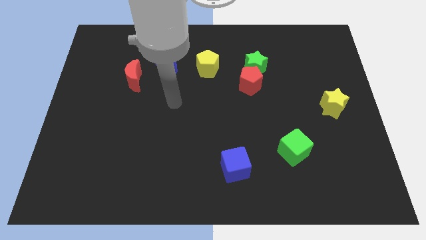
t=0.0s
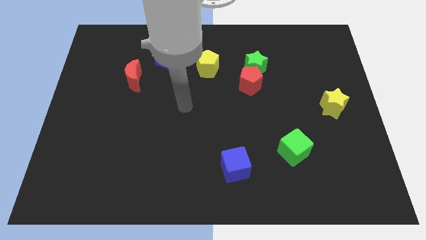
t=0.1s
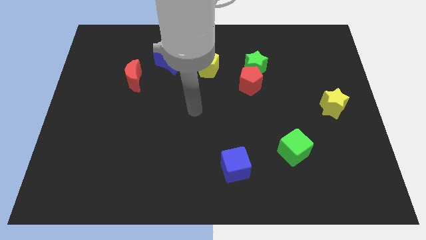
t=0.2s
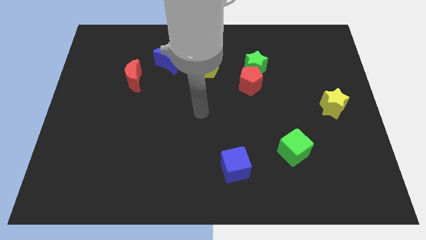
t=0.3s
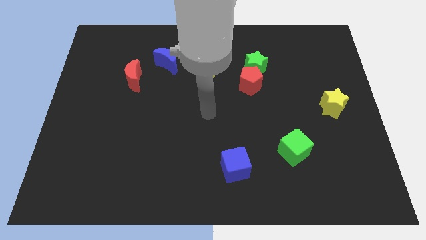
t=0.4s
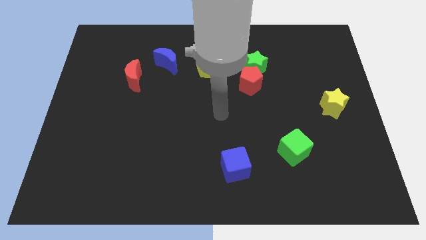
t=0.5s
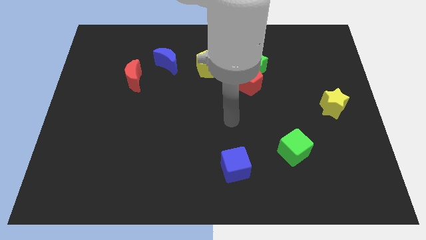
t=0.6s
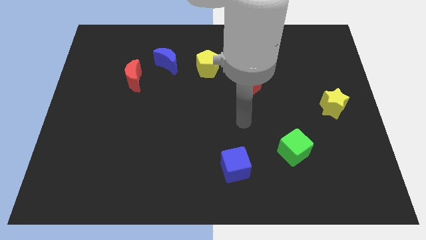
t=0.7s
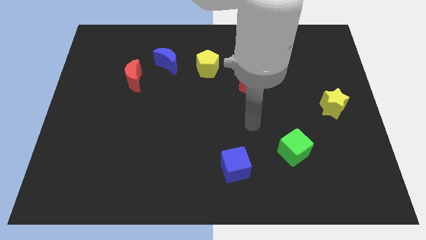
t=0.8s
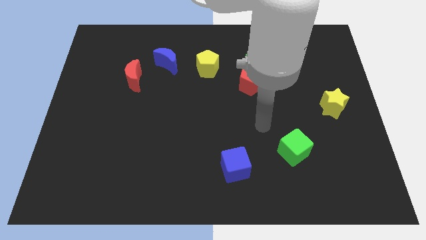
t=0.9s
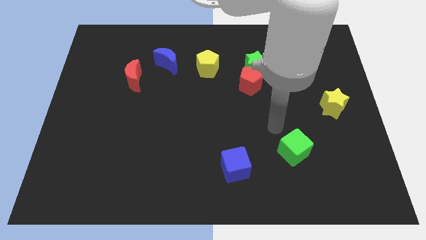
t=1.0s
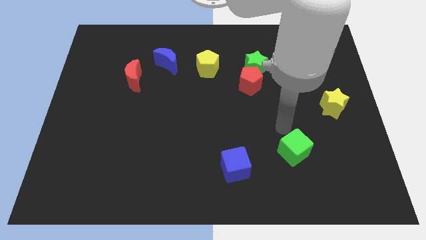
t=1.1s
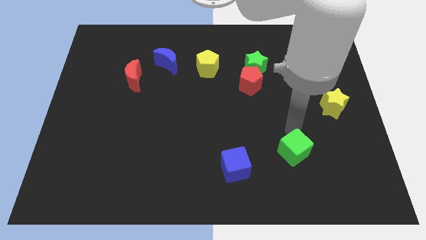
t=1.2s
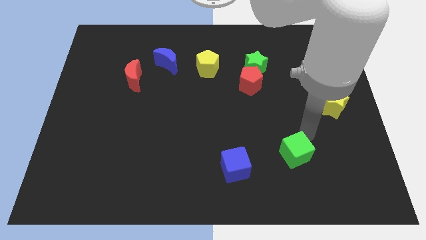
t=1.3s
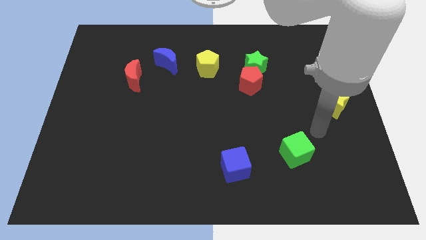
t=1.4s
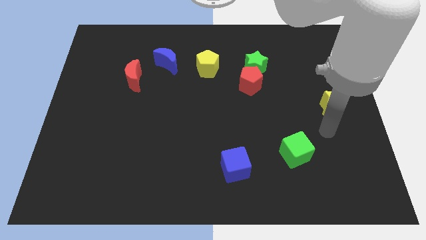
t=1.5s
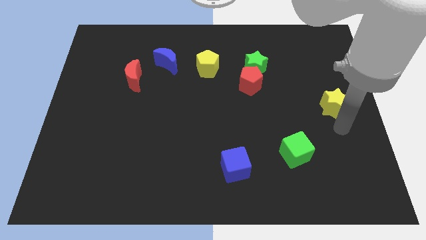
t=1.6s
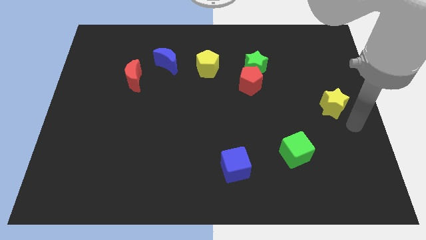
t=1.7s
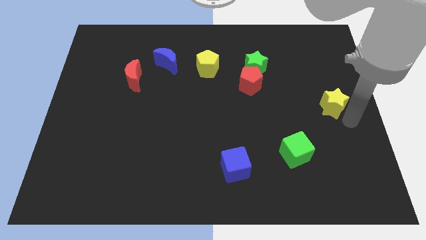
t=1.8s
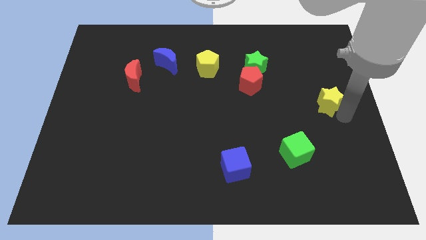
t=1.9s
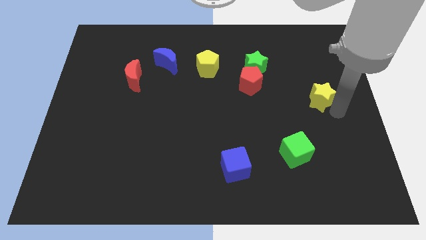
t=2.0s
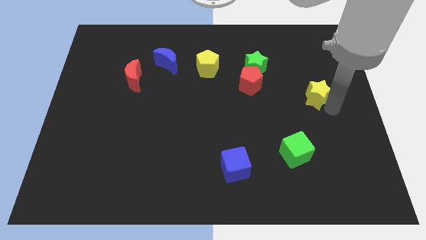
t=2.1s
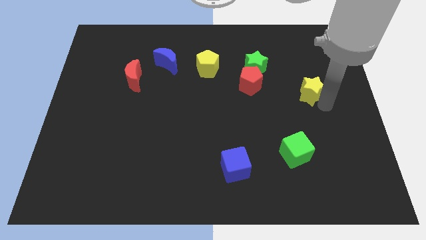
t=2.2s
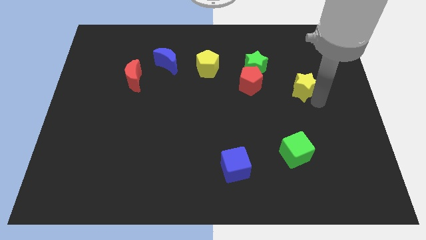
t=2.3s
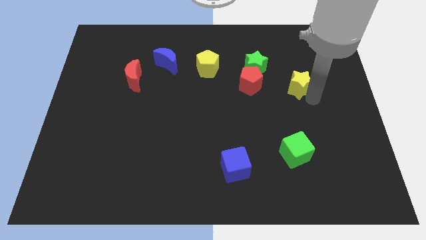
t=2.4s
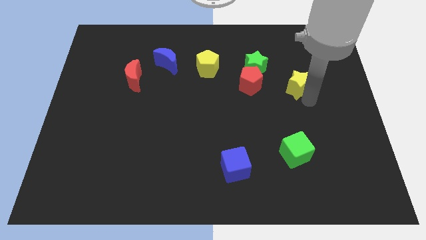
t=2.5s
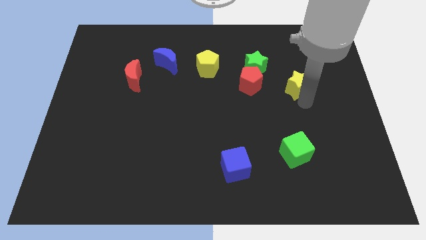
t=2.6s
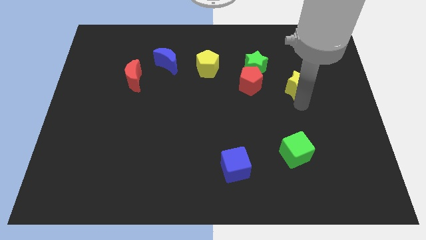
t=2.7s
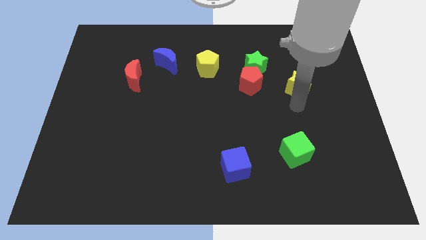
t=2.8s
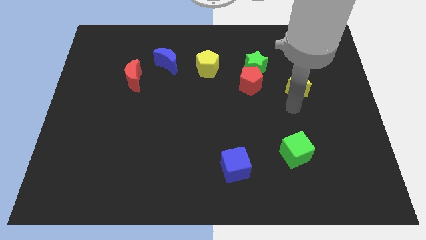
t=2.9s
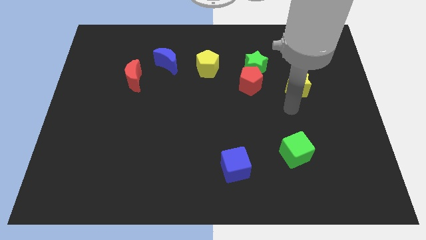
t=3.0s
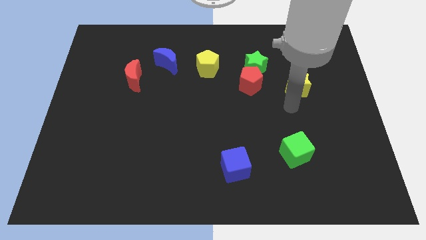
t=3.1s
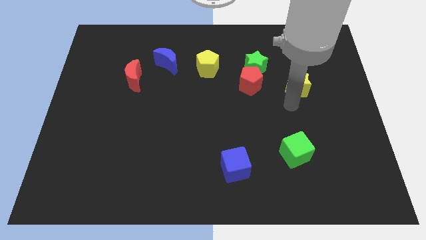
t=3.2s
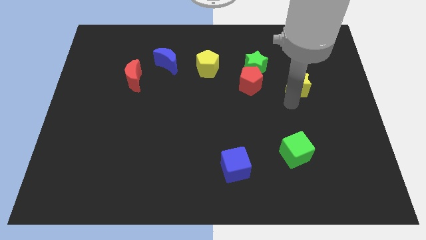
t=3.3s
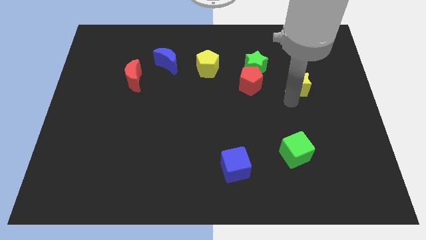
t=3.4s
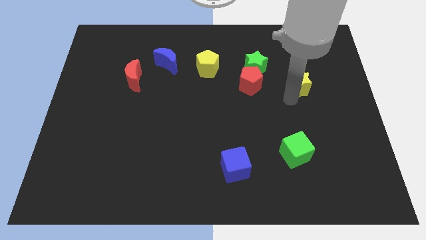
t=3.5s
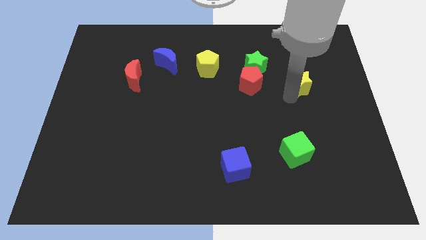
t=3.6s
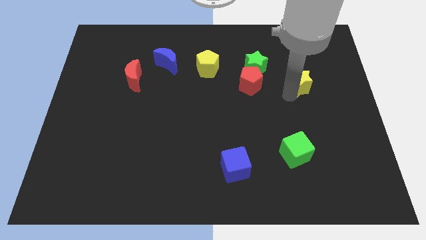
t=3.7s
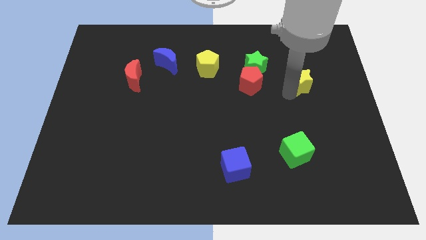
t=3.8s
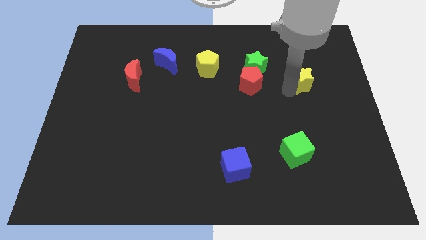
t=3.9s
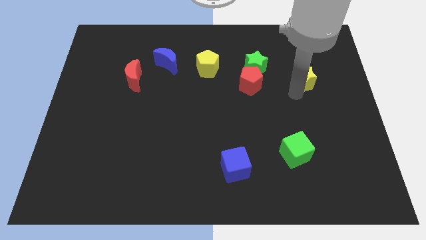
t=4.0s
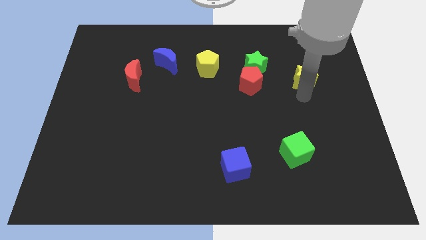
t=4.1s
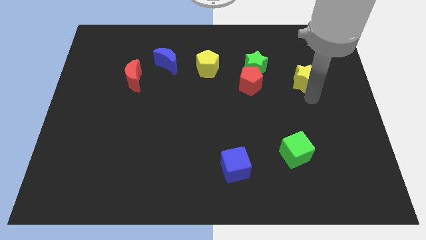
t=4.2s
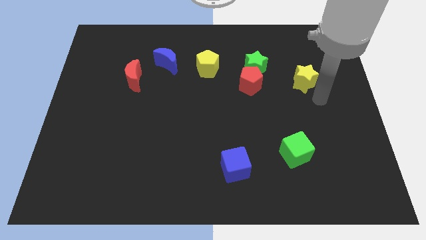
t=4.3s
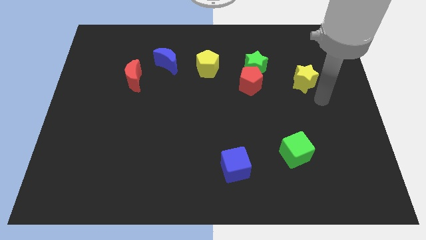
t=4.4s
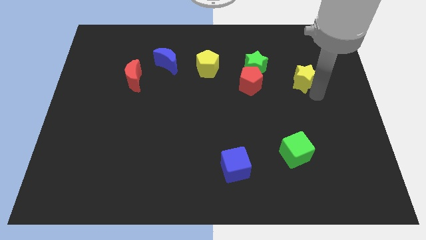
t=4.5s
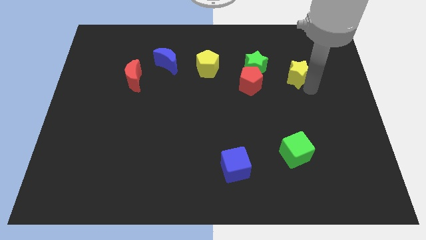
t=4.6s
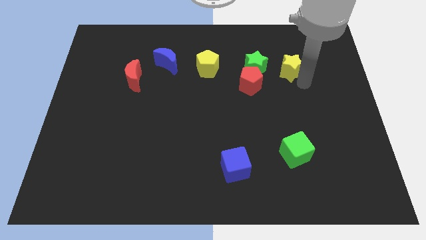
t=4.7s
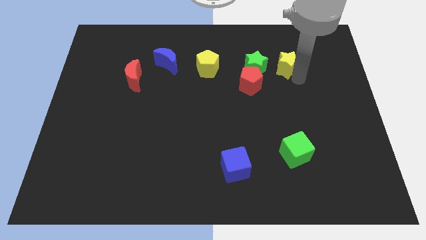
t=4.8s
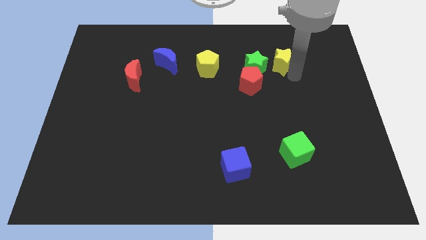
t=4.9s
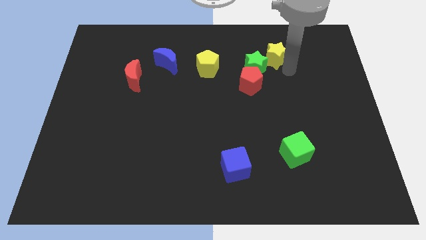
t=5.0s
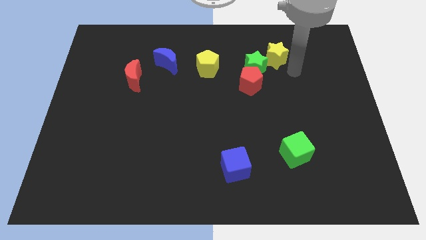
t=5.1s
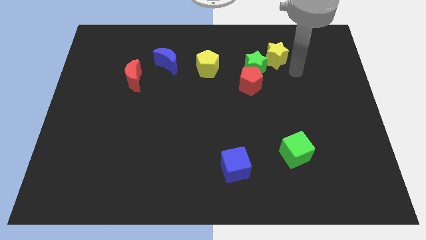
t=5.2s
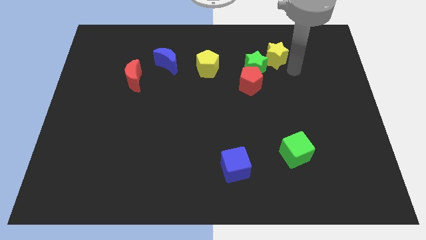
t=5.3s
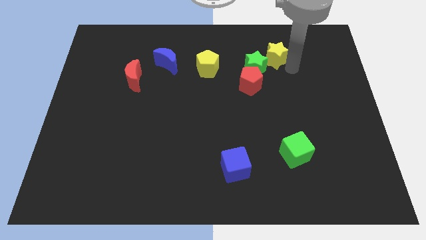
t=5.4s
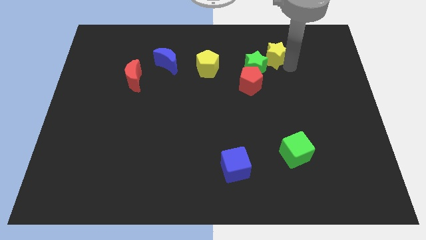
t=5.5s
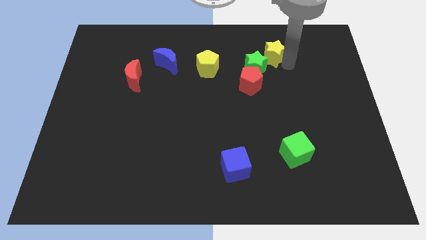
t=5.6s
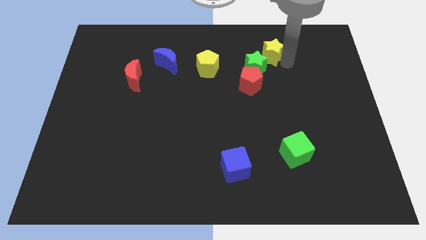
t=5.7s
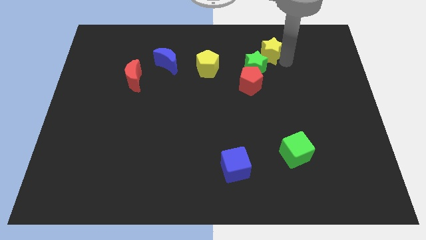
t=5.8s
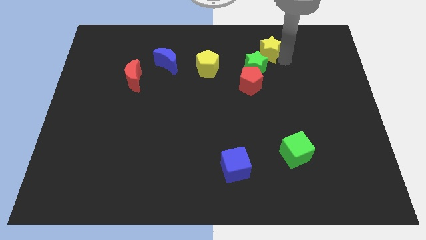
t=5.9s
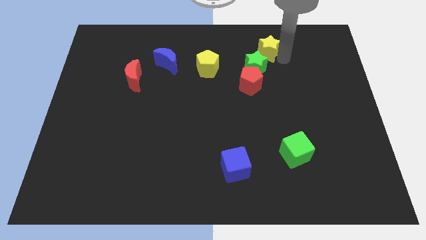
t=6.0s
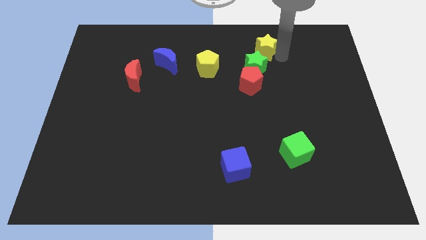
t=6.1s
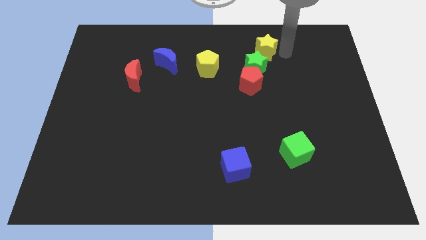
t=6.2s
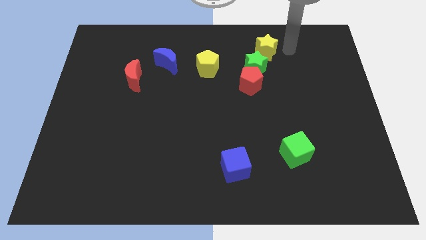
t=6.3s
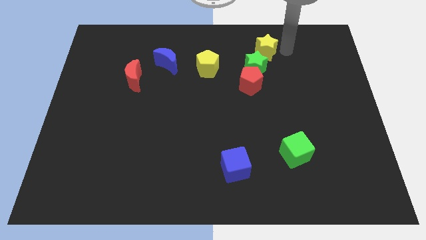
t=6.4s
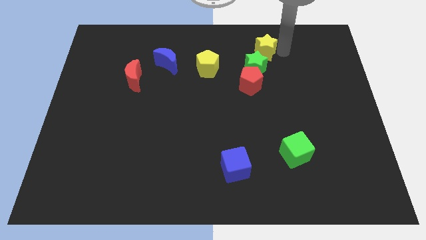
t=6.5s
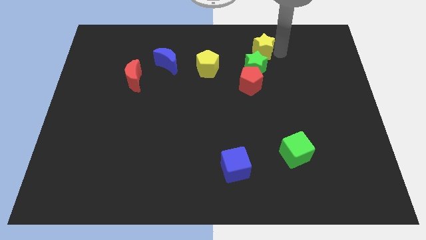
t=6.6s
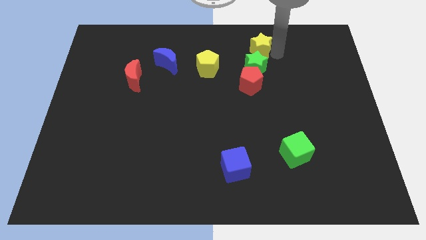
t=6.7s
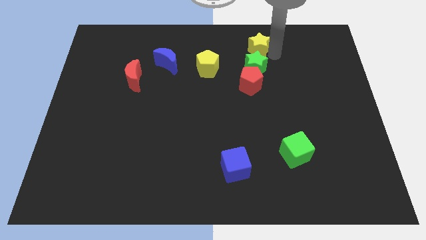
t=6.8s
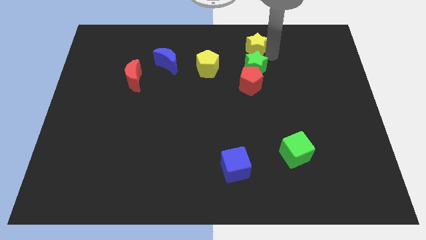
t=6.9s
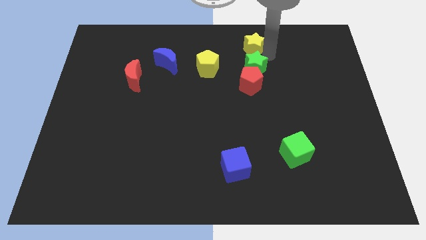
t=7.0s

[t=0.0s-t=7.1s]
slide the yellow star to the top left of the green star

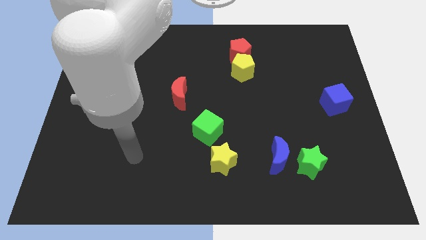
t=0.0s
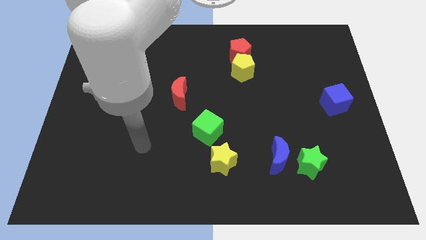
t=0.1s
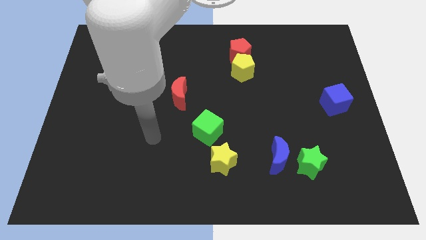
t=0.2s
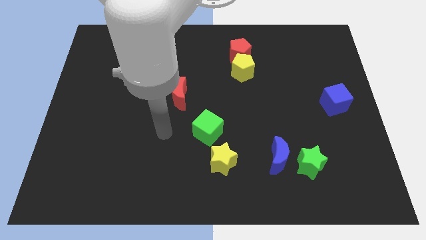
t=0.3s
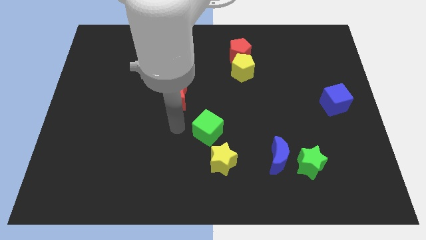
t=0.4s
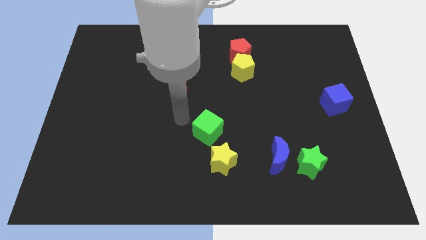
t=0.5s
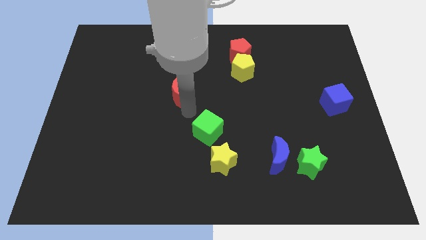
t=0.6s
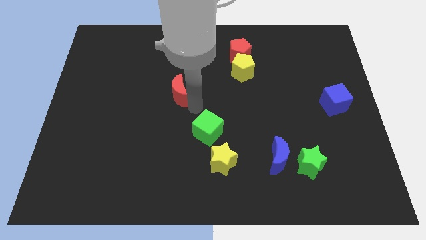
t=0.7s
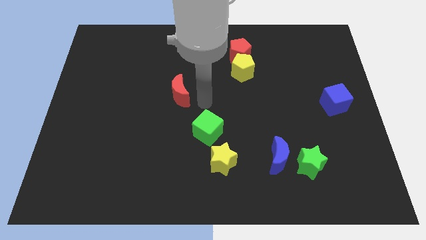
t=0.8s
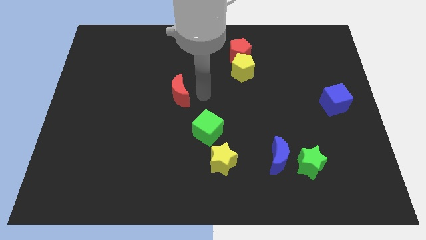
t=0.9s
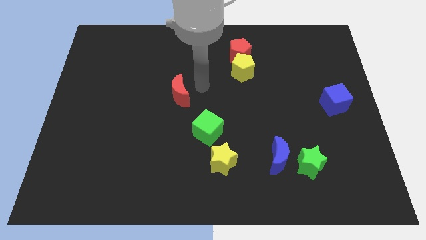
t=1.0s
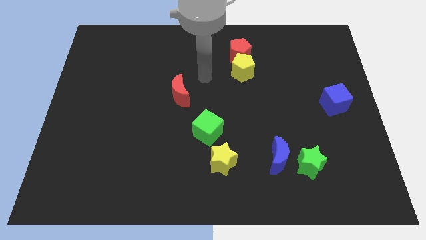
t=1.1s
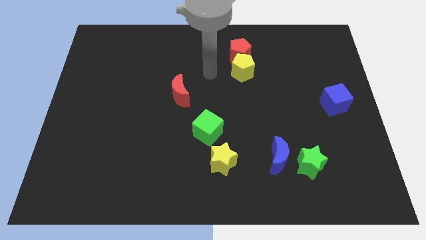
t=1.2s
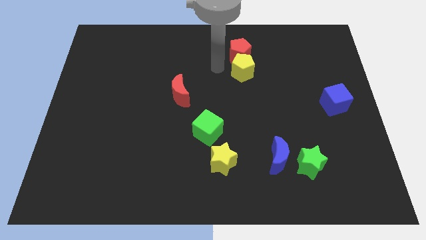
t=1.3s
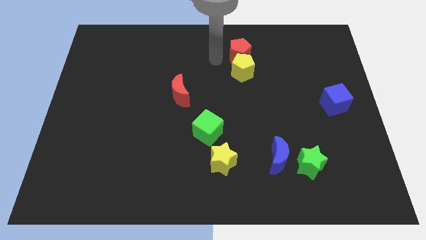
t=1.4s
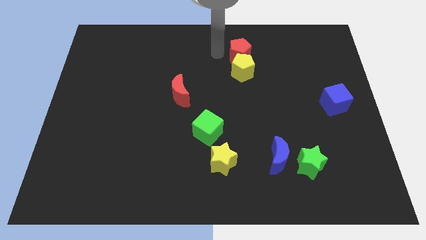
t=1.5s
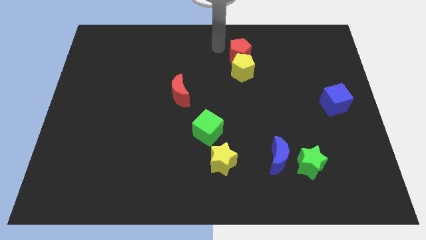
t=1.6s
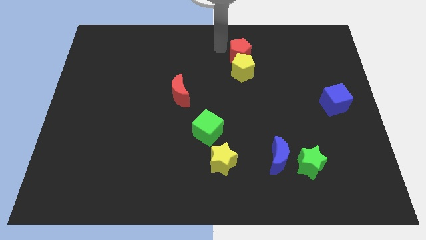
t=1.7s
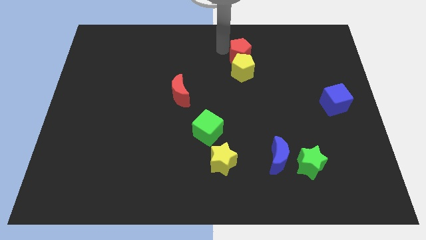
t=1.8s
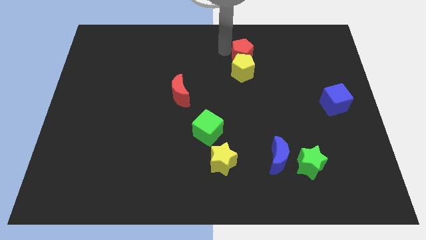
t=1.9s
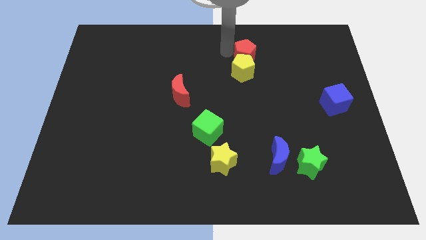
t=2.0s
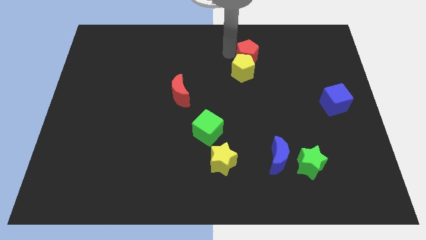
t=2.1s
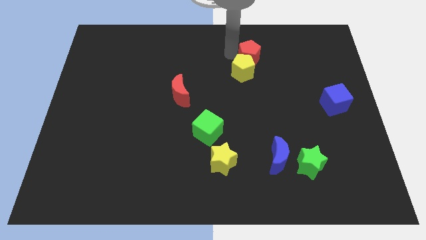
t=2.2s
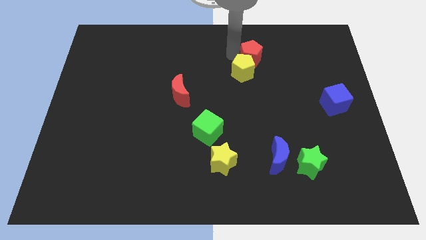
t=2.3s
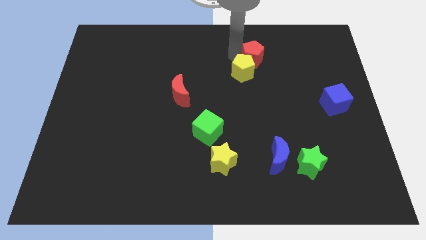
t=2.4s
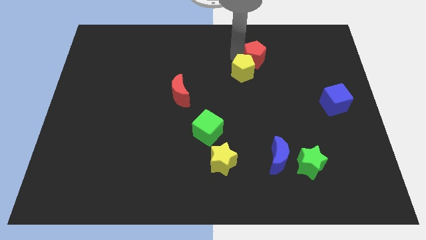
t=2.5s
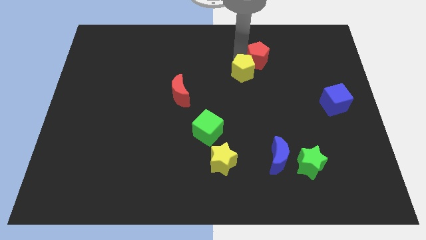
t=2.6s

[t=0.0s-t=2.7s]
move the red pentagon to the right of the yellow pentagon
